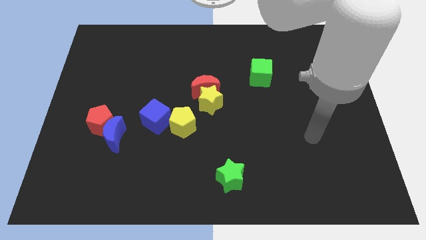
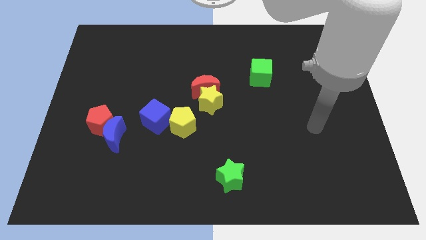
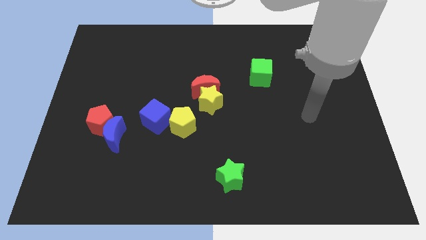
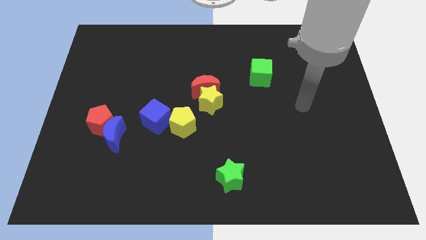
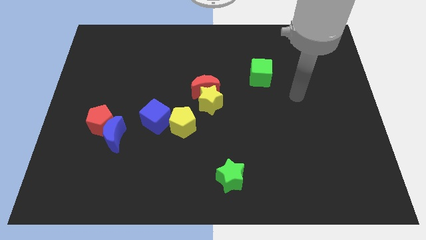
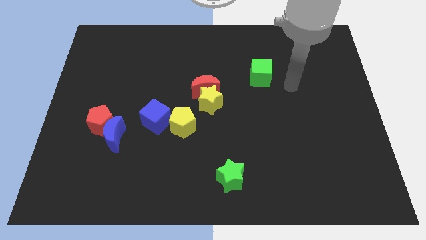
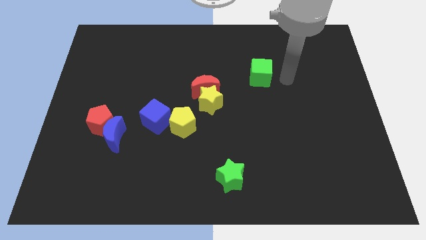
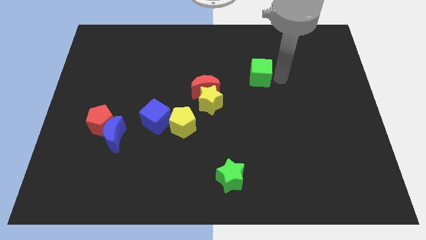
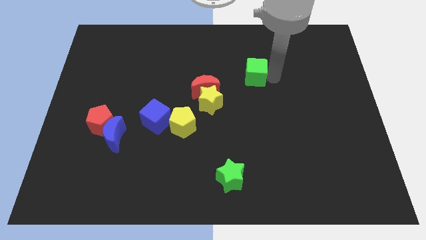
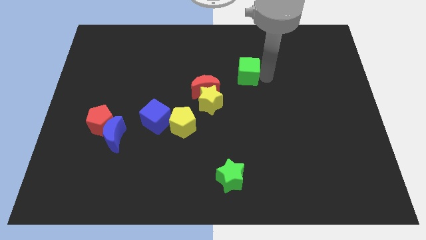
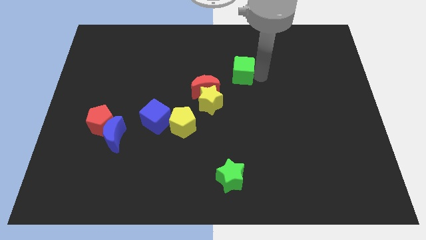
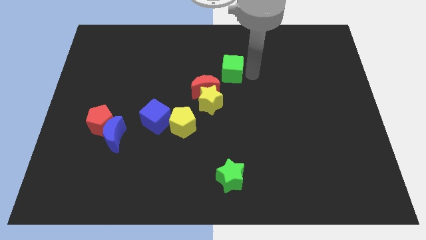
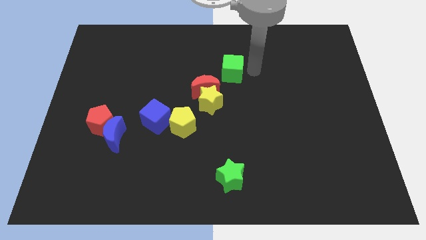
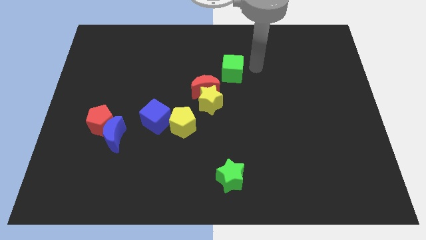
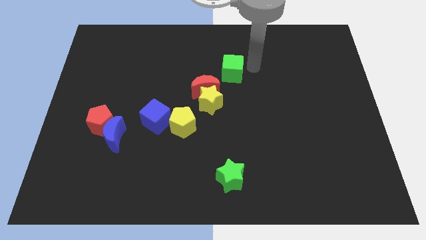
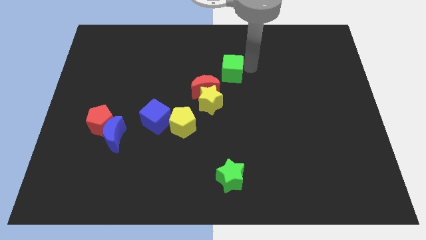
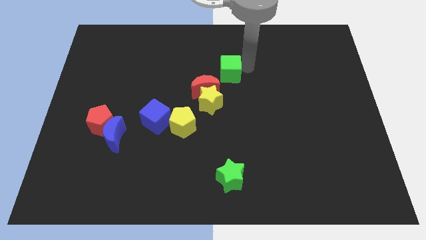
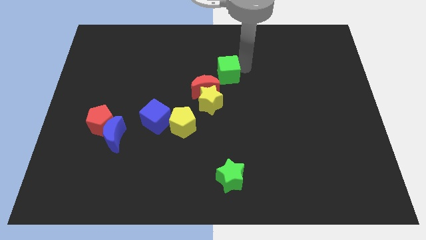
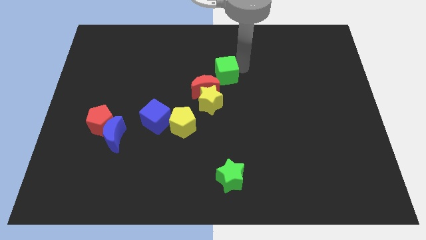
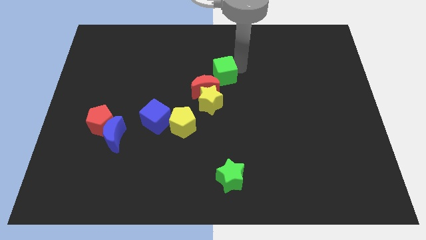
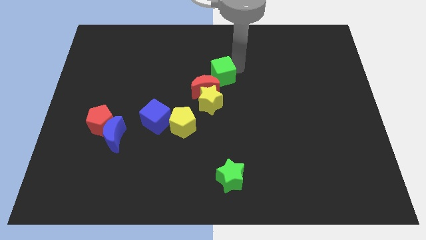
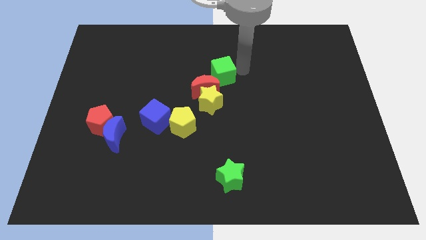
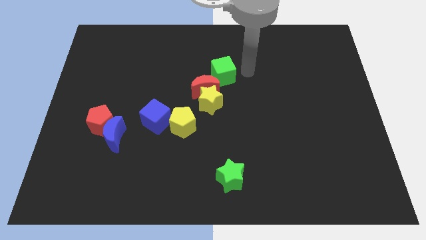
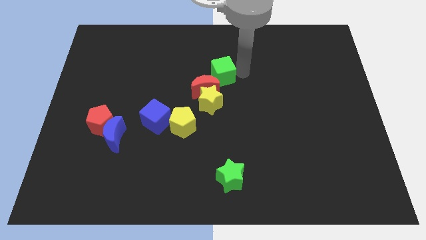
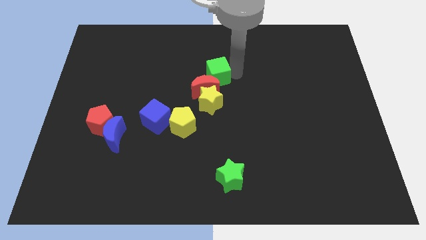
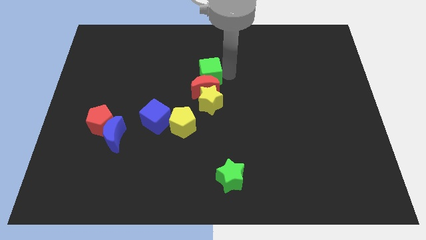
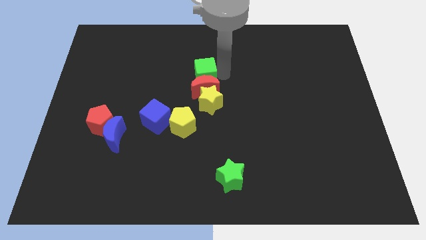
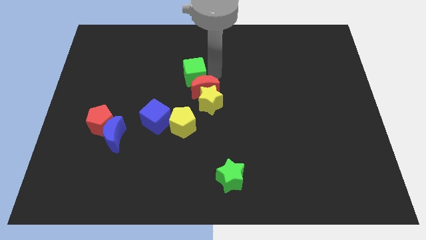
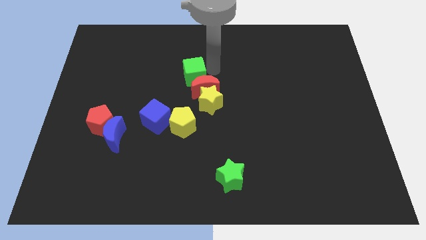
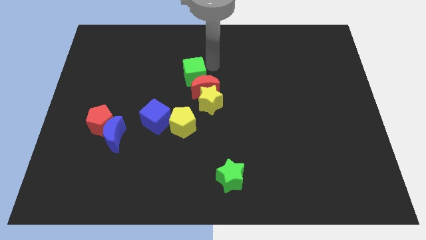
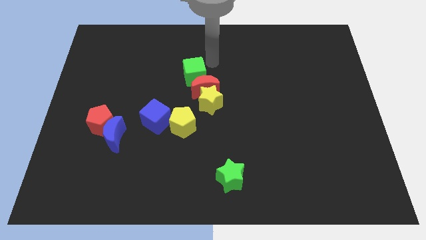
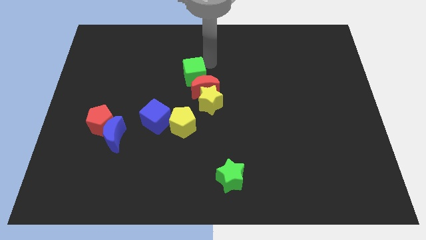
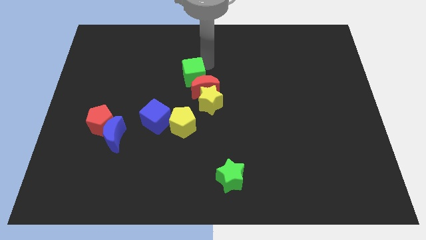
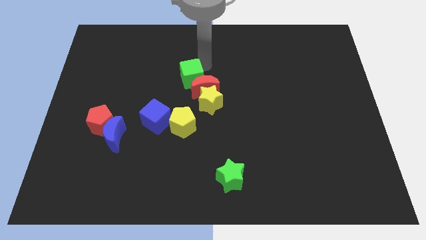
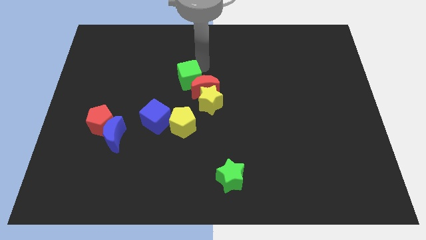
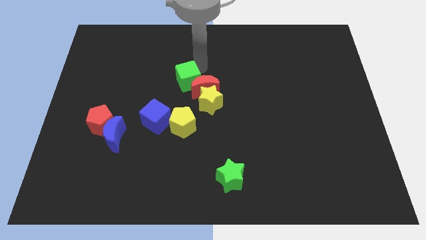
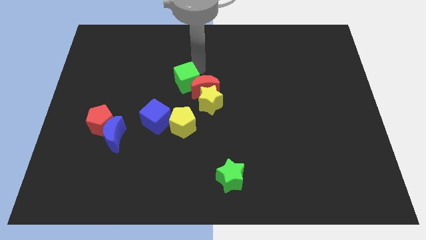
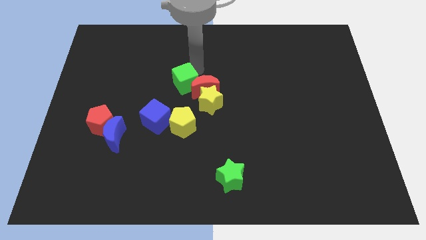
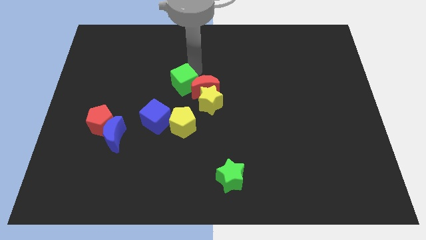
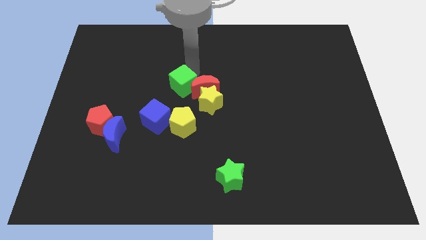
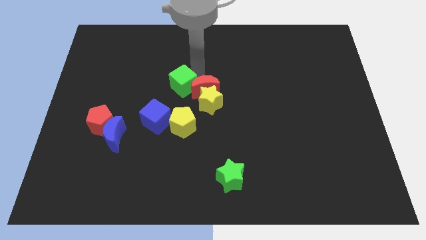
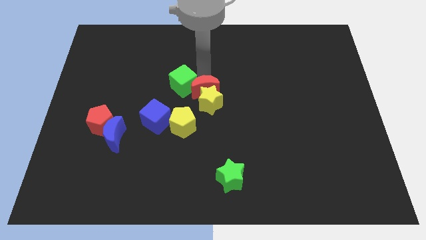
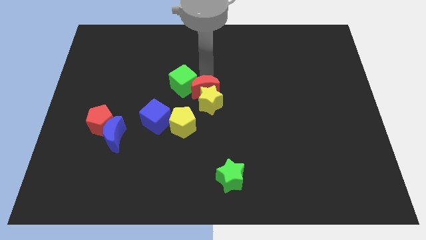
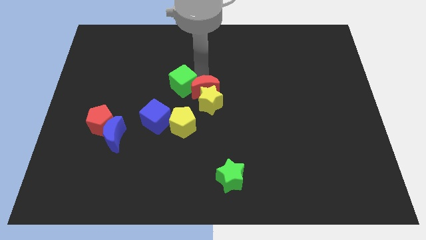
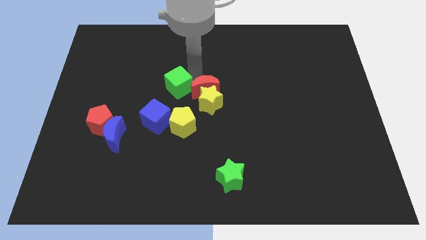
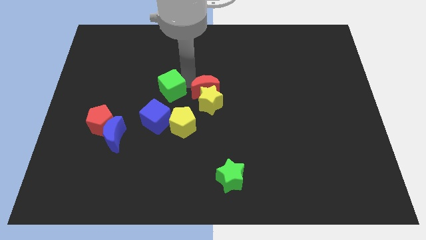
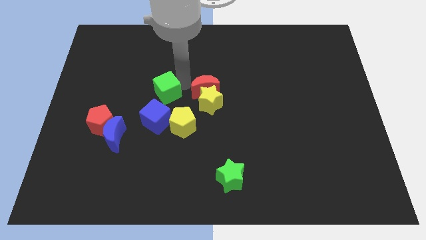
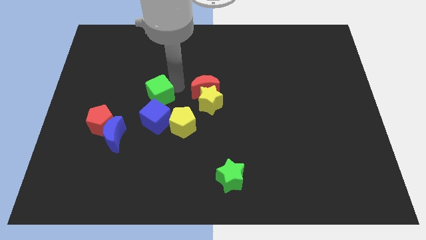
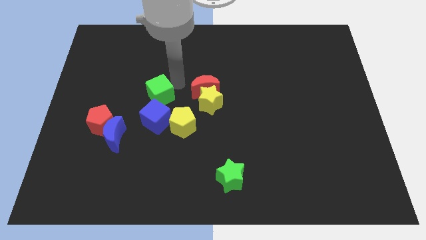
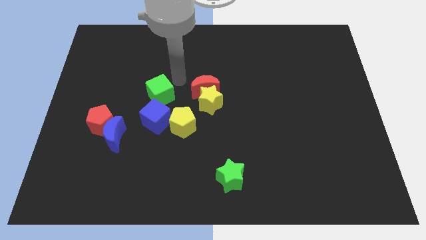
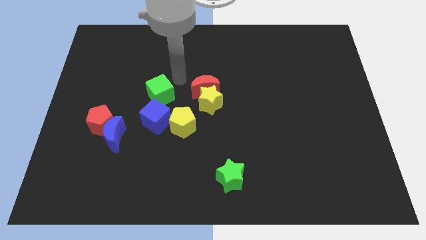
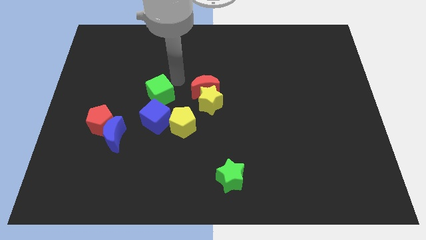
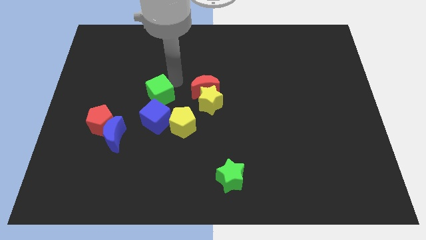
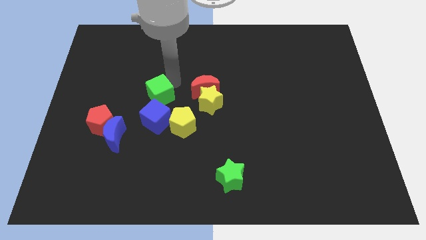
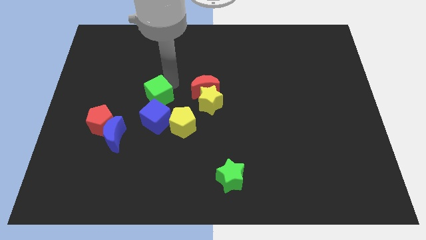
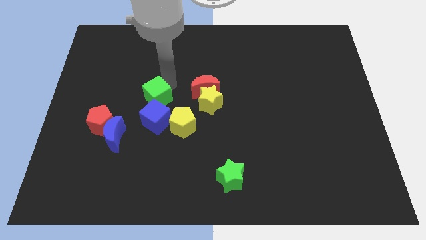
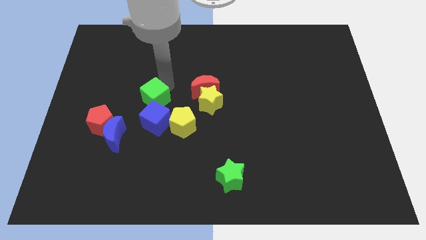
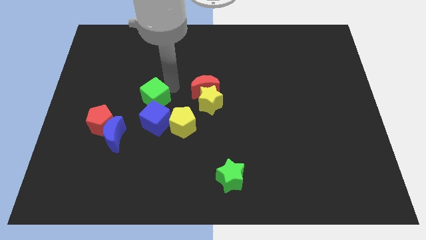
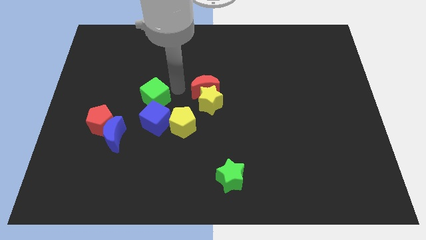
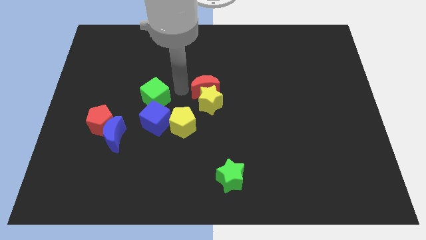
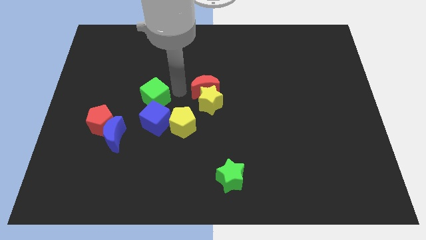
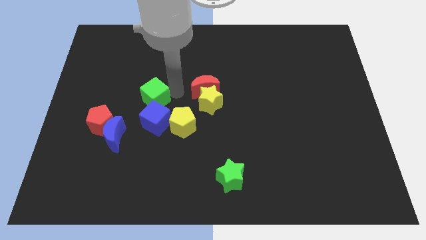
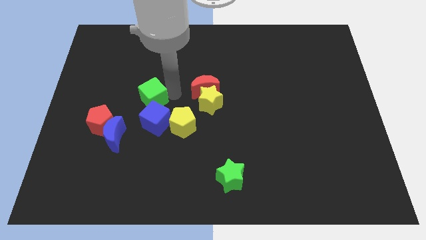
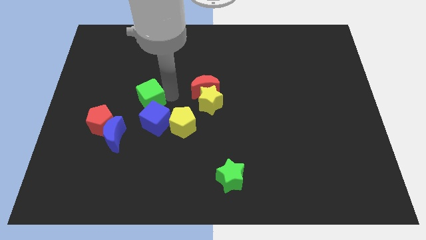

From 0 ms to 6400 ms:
slide the green cube diagonally up and to the right of the red pentagon

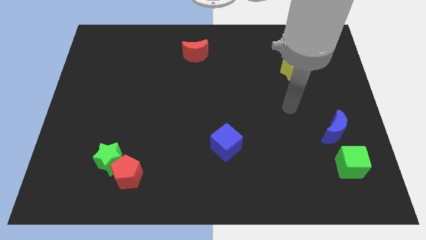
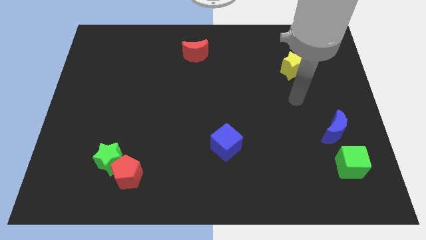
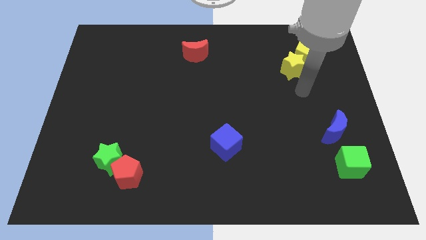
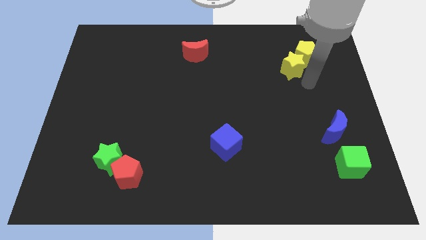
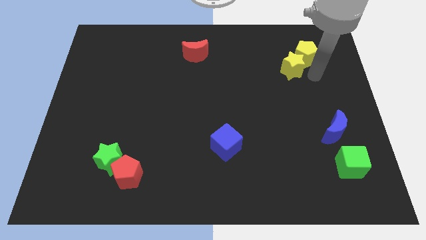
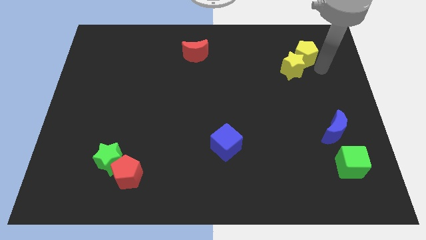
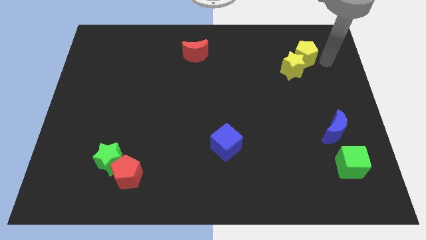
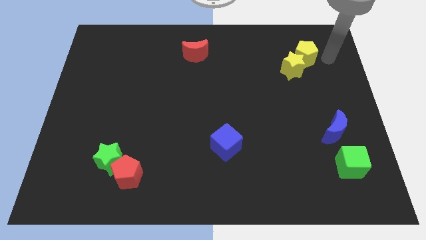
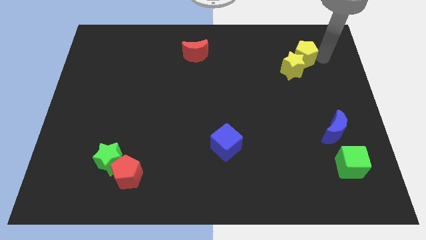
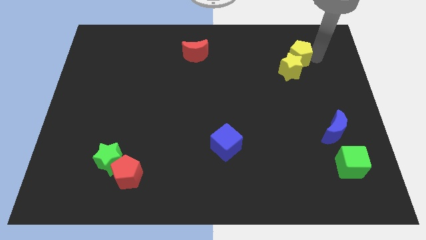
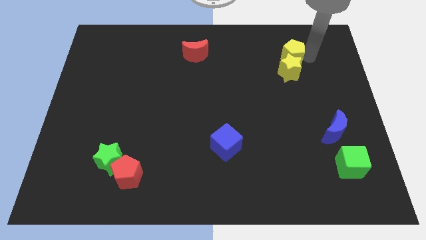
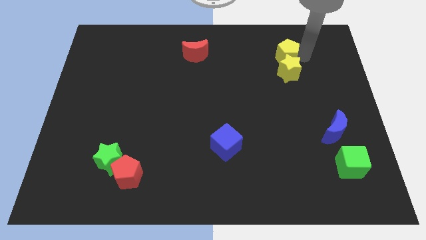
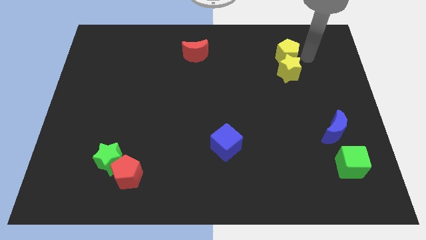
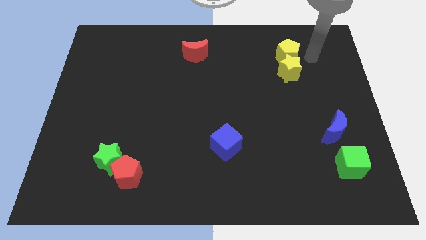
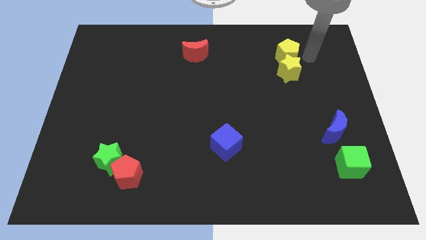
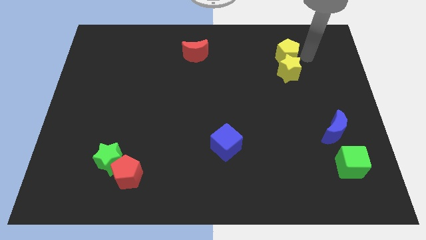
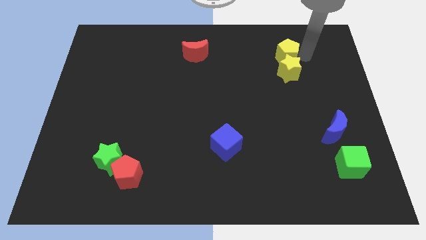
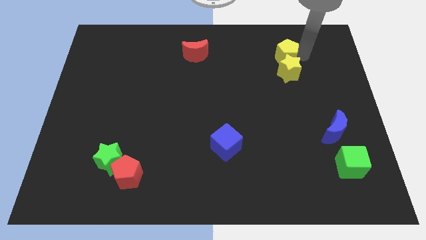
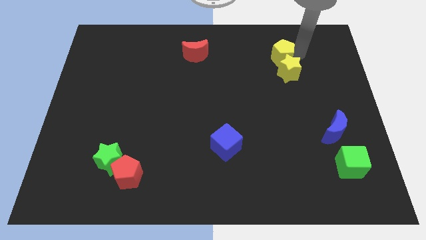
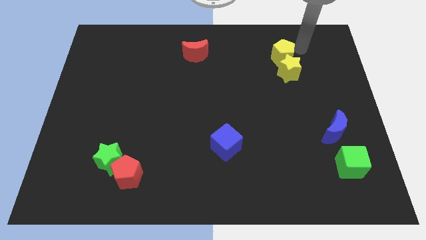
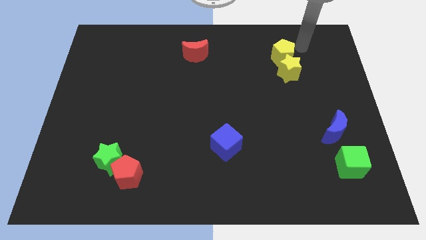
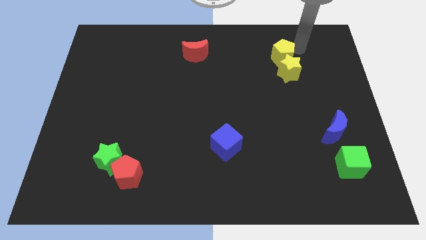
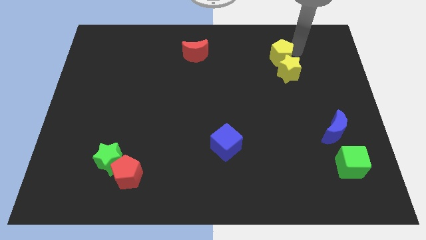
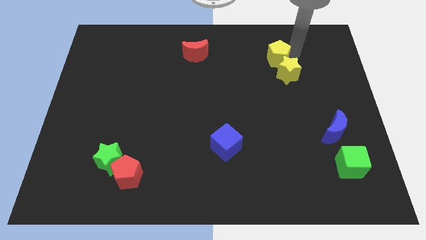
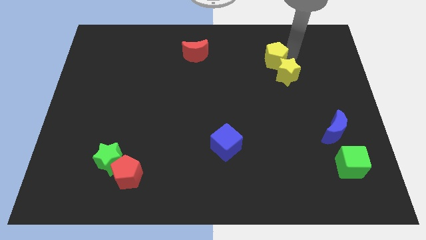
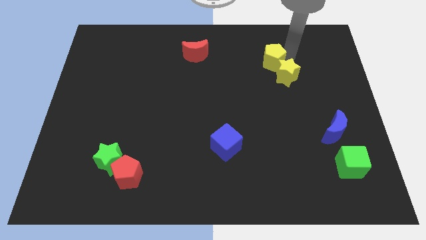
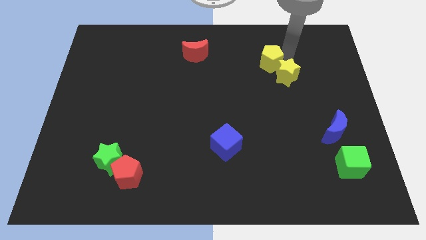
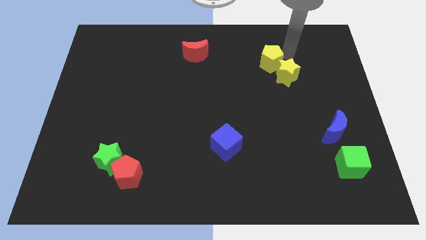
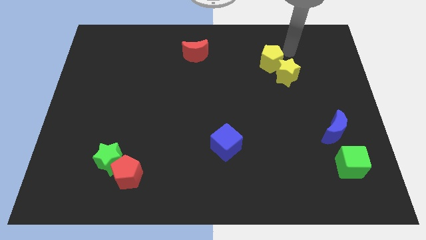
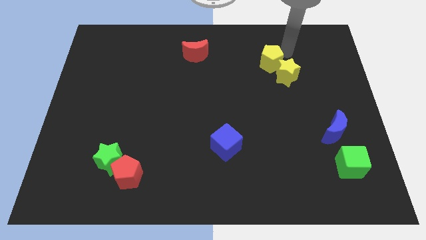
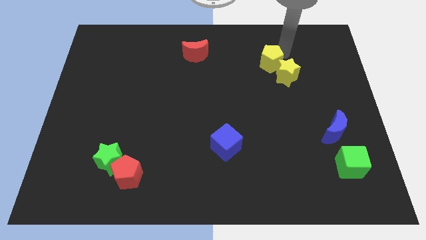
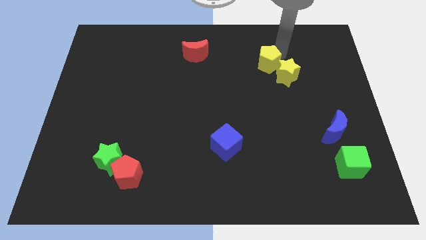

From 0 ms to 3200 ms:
move the yellow pentagon just left of the yellow star
